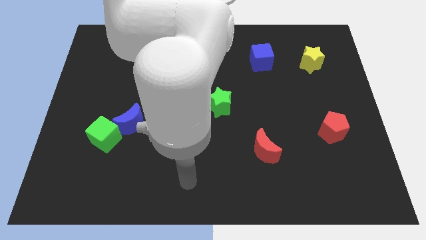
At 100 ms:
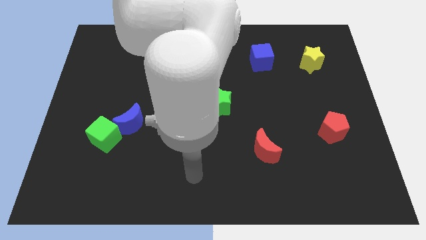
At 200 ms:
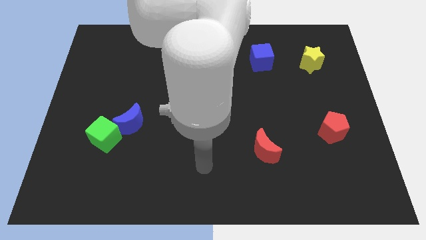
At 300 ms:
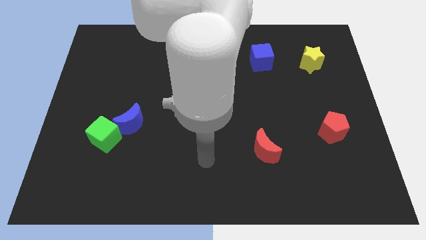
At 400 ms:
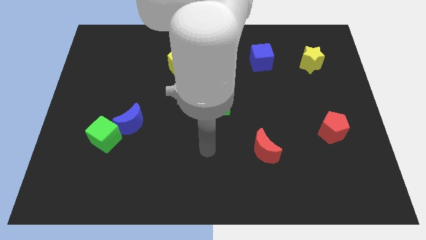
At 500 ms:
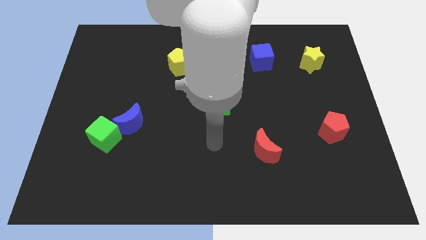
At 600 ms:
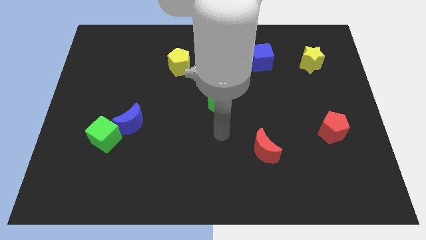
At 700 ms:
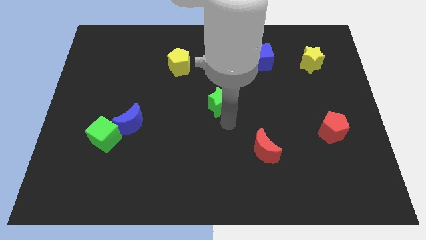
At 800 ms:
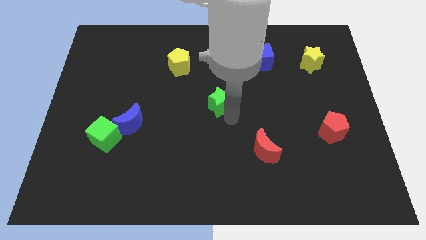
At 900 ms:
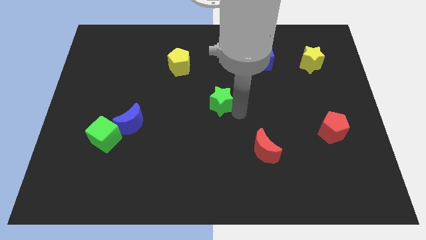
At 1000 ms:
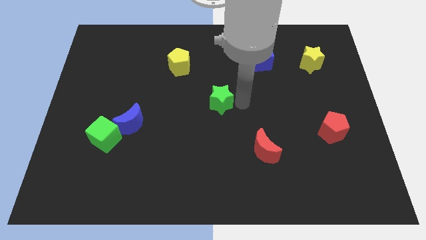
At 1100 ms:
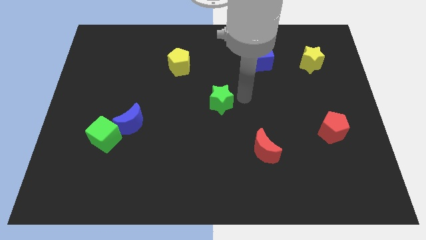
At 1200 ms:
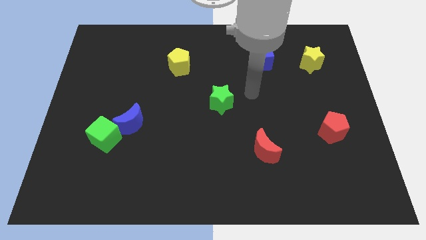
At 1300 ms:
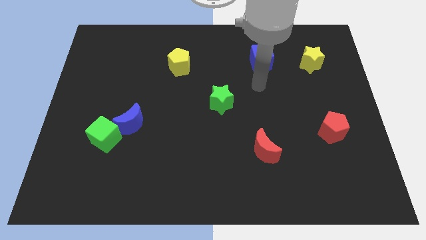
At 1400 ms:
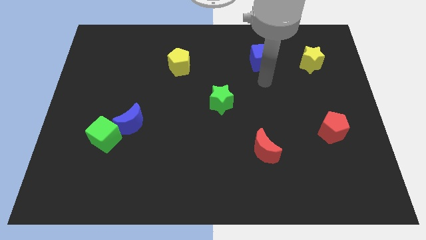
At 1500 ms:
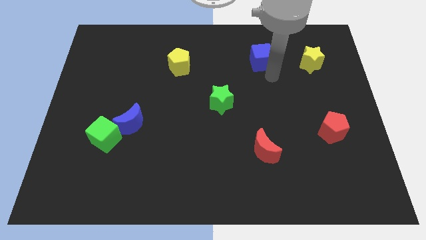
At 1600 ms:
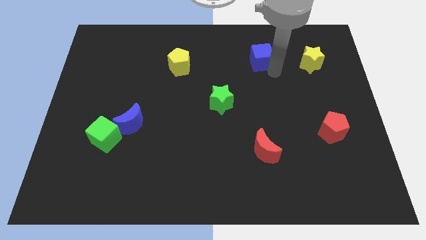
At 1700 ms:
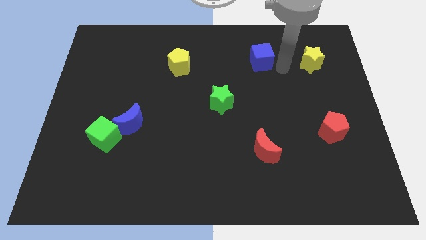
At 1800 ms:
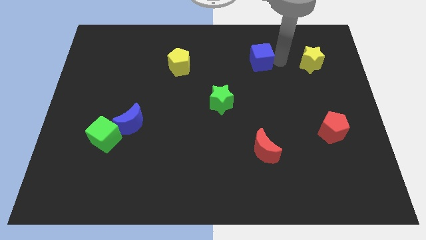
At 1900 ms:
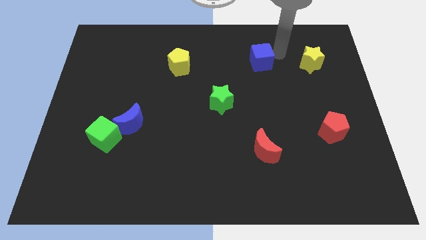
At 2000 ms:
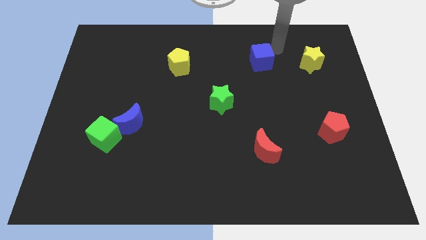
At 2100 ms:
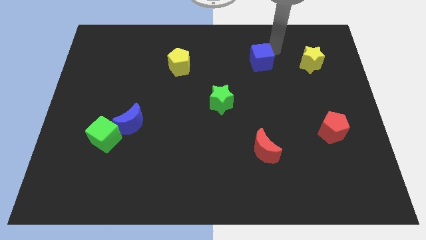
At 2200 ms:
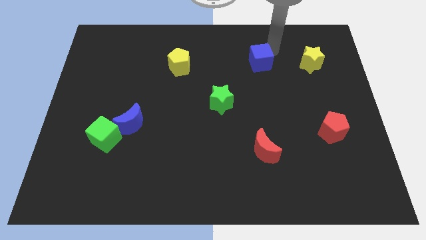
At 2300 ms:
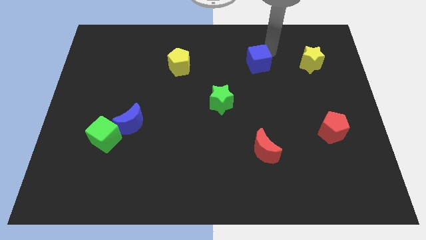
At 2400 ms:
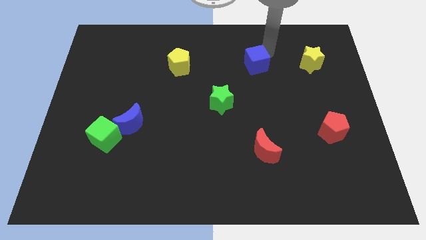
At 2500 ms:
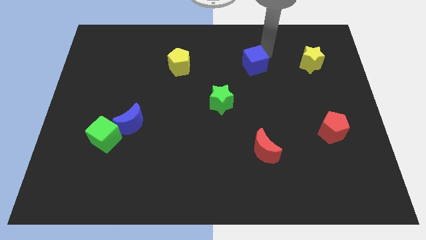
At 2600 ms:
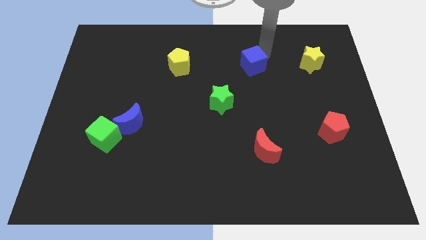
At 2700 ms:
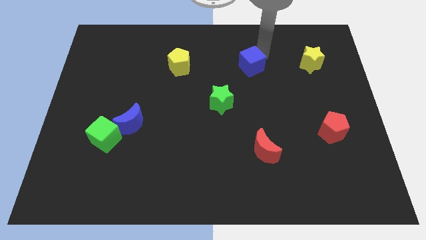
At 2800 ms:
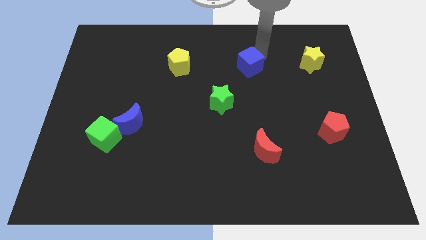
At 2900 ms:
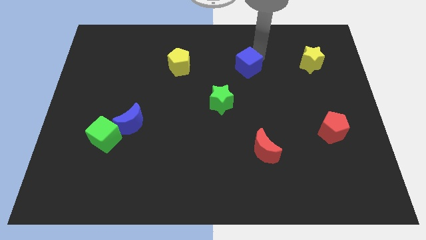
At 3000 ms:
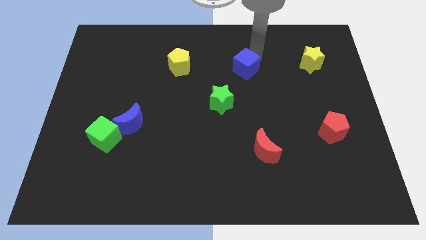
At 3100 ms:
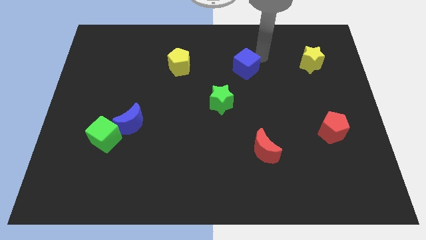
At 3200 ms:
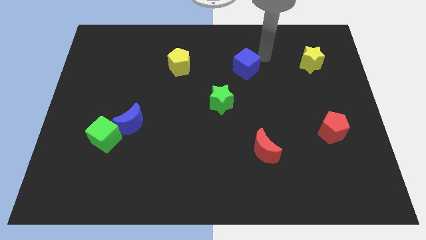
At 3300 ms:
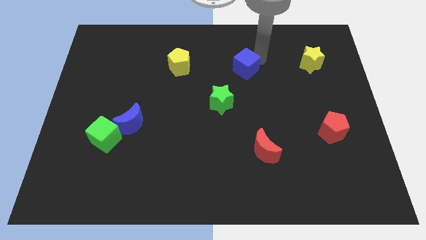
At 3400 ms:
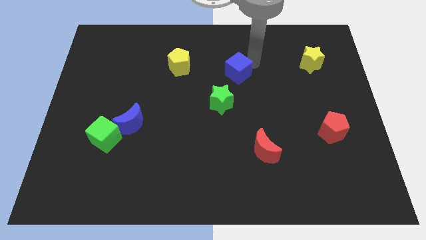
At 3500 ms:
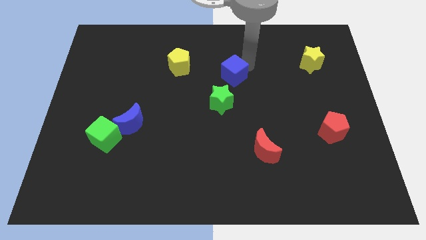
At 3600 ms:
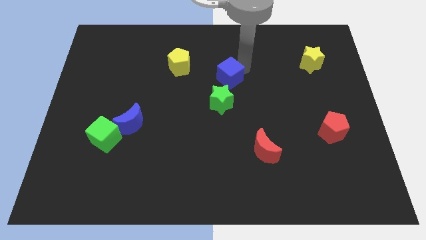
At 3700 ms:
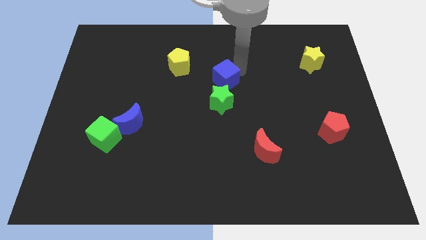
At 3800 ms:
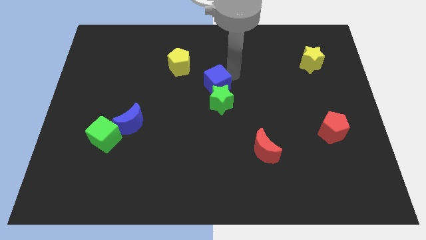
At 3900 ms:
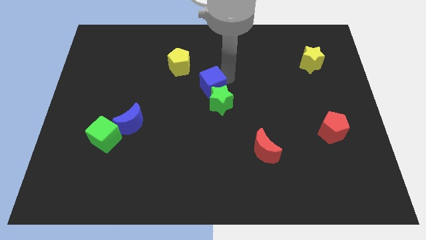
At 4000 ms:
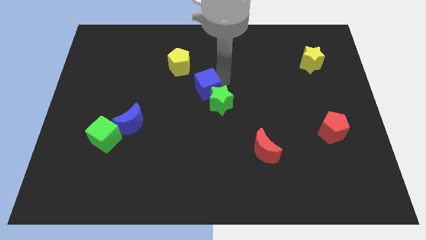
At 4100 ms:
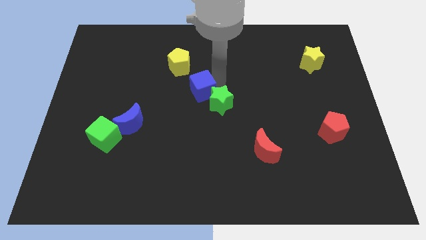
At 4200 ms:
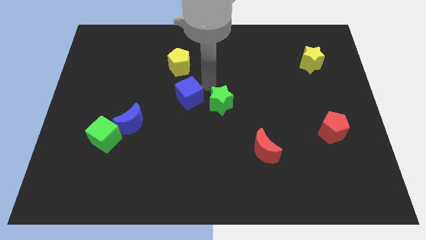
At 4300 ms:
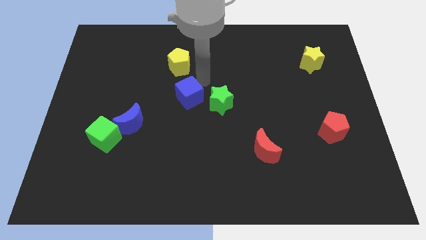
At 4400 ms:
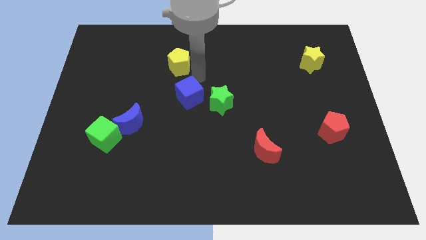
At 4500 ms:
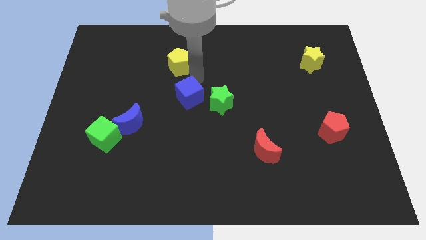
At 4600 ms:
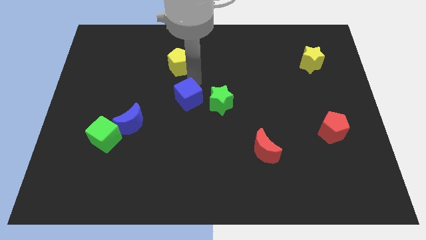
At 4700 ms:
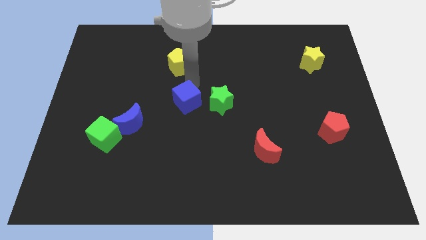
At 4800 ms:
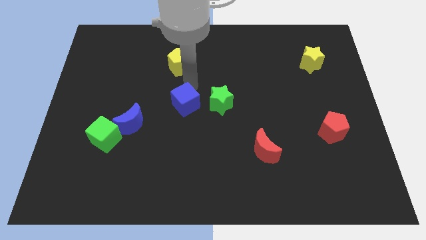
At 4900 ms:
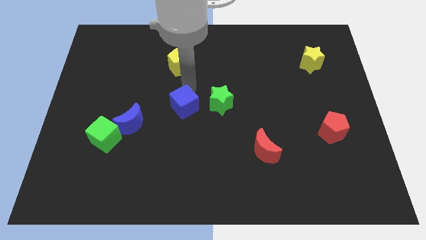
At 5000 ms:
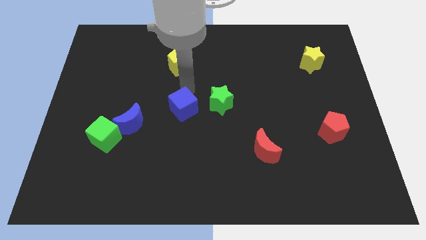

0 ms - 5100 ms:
put the blue cube to the right of the blue moon

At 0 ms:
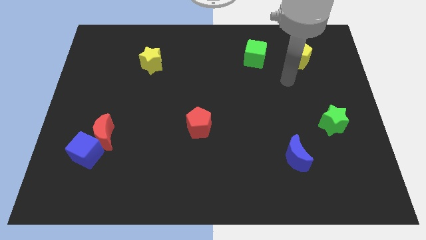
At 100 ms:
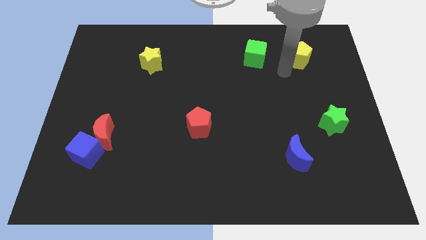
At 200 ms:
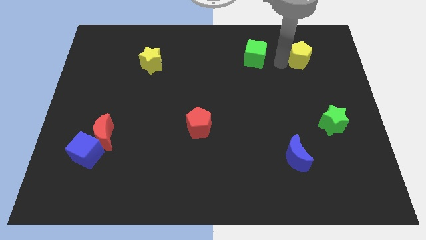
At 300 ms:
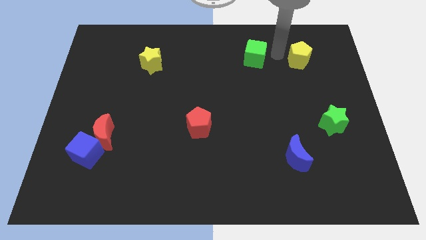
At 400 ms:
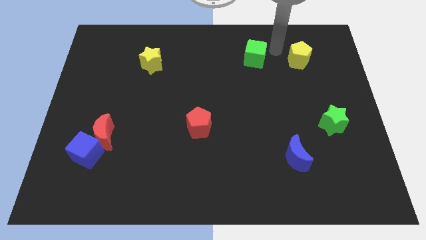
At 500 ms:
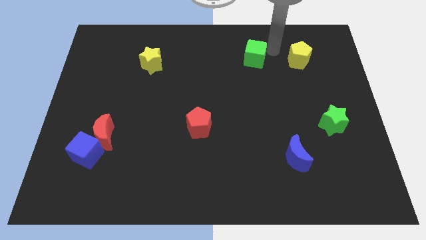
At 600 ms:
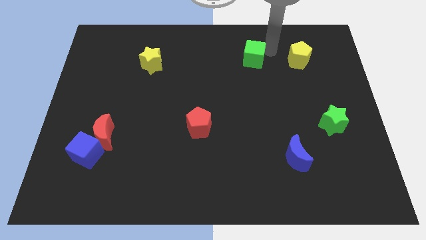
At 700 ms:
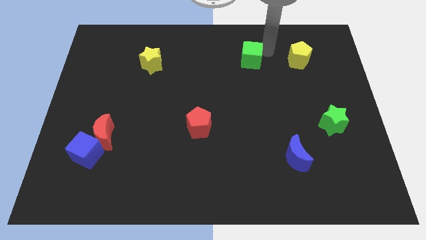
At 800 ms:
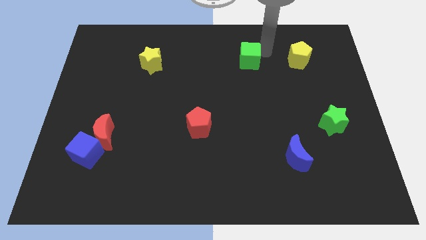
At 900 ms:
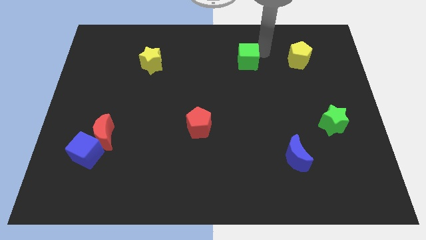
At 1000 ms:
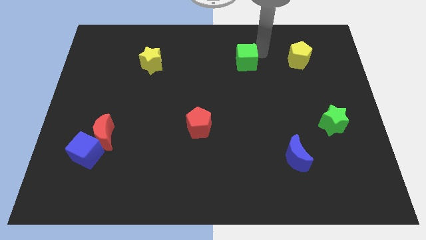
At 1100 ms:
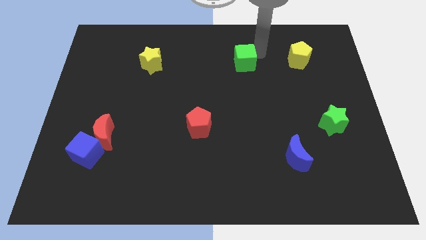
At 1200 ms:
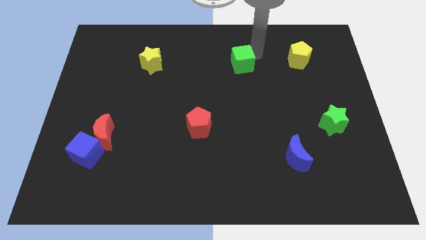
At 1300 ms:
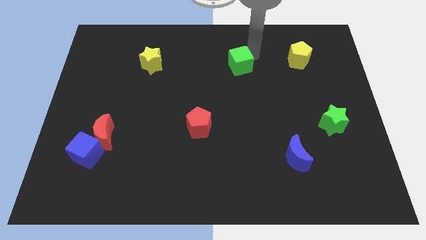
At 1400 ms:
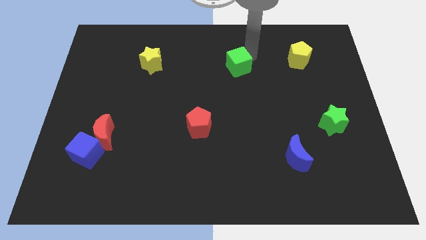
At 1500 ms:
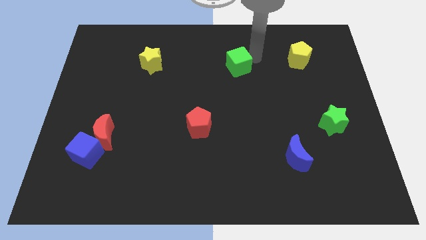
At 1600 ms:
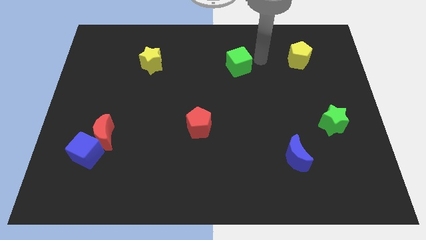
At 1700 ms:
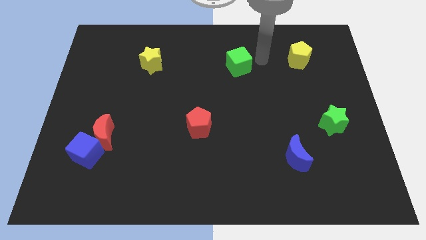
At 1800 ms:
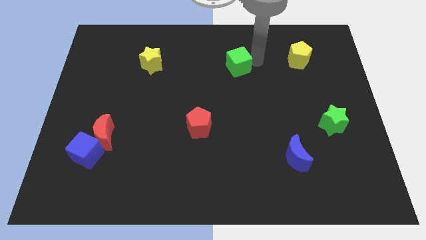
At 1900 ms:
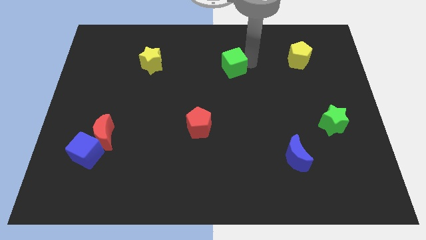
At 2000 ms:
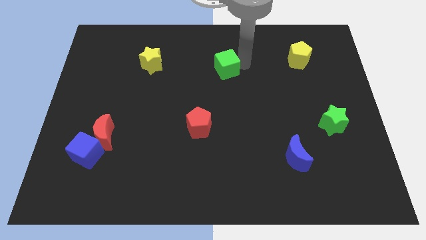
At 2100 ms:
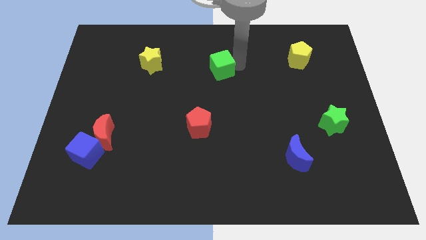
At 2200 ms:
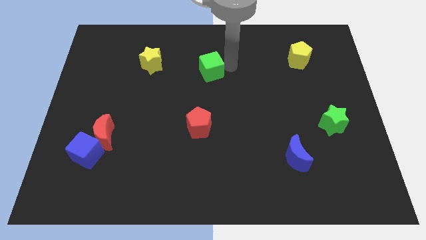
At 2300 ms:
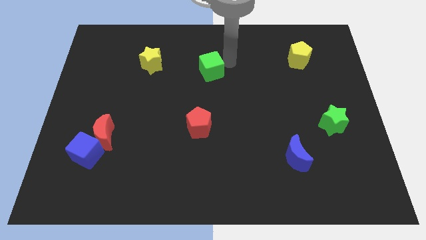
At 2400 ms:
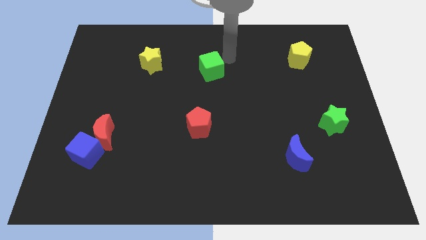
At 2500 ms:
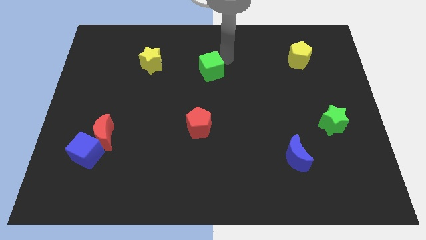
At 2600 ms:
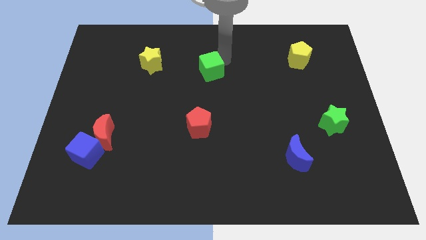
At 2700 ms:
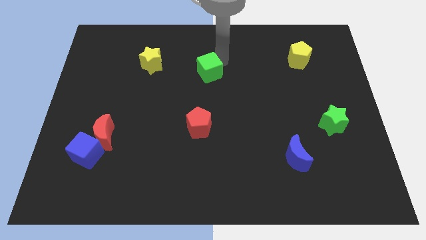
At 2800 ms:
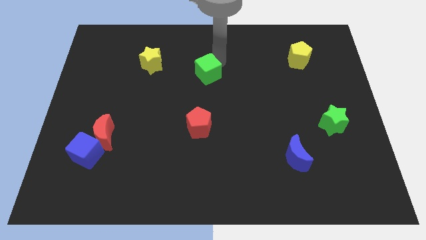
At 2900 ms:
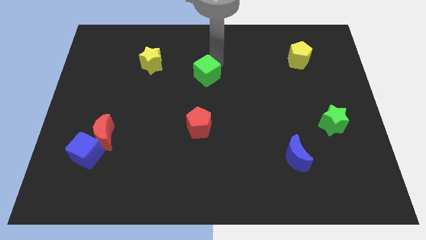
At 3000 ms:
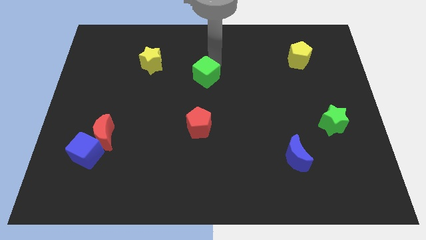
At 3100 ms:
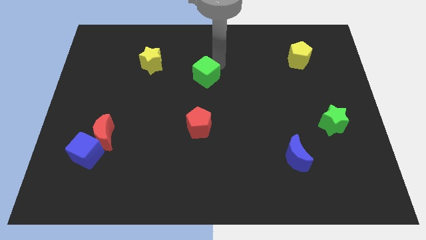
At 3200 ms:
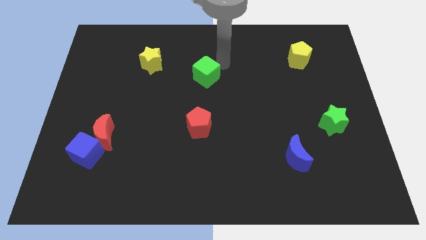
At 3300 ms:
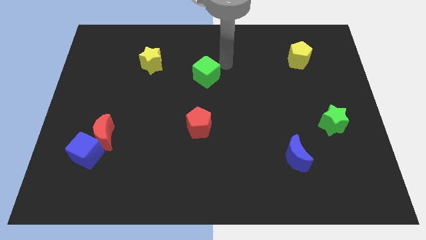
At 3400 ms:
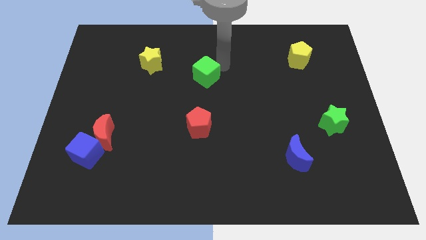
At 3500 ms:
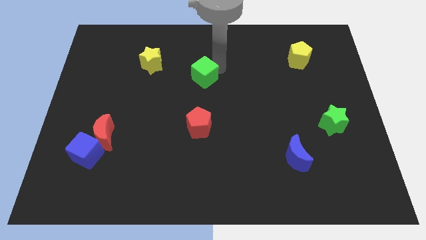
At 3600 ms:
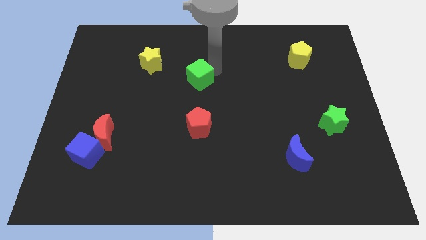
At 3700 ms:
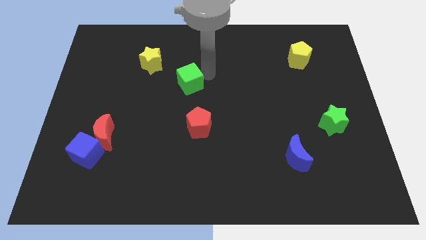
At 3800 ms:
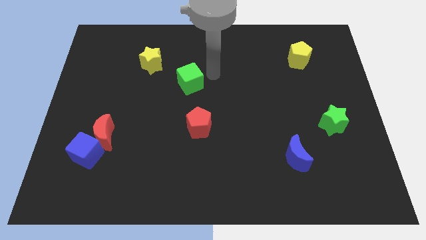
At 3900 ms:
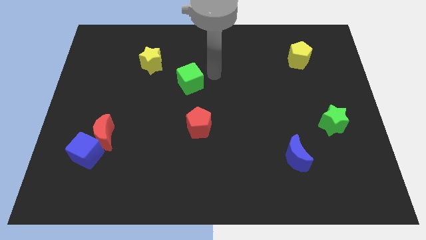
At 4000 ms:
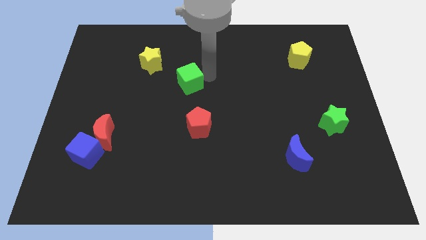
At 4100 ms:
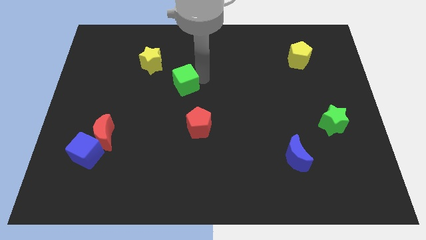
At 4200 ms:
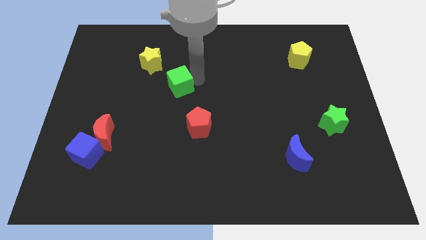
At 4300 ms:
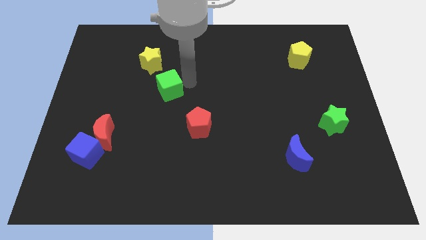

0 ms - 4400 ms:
move the green cube to the bottom side of the yellow star
